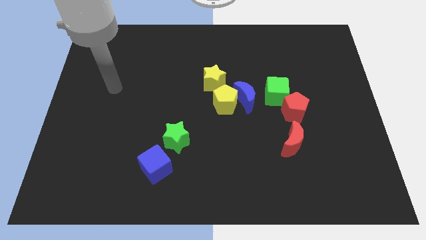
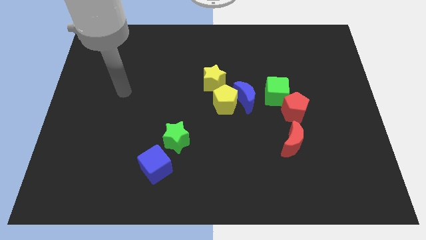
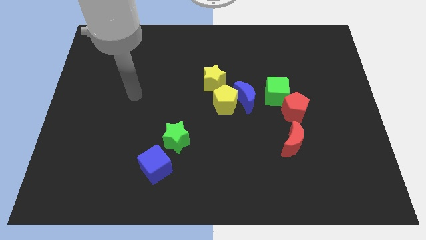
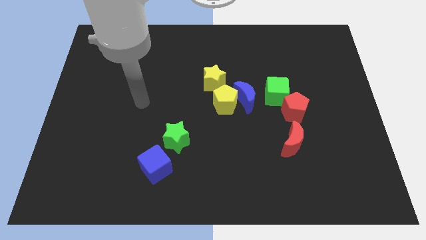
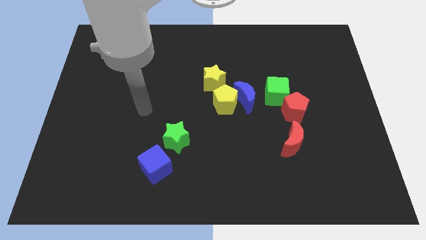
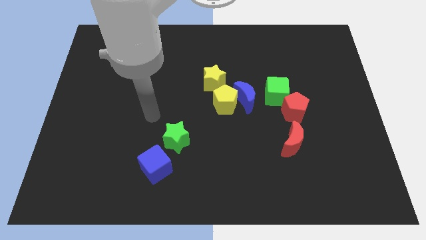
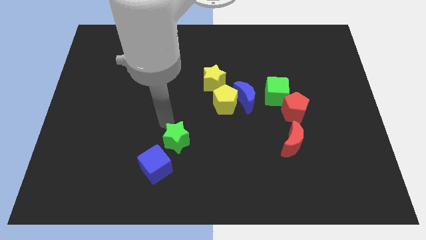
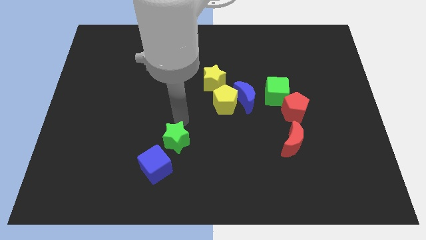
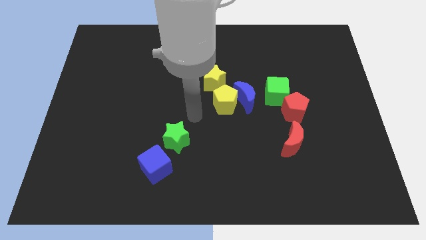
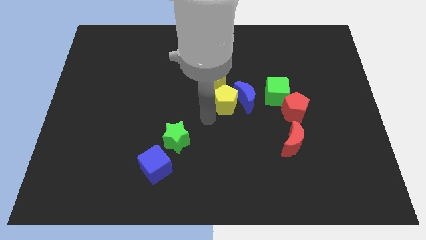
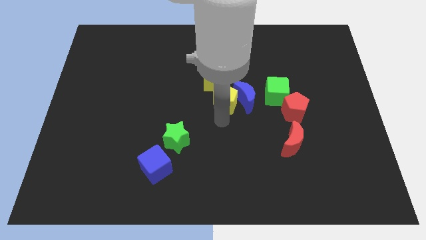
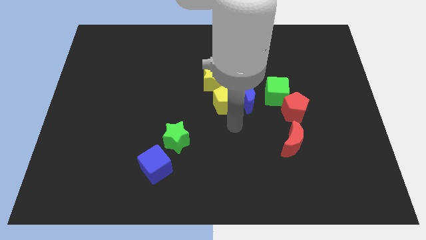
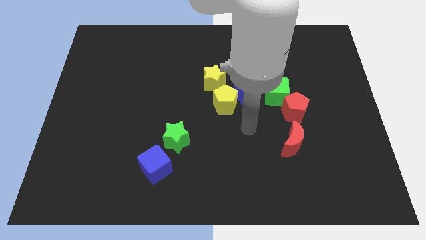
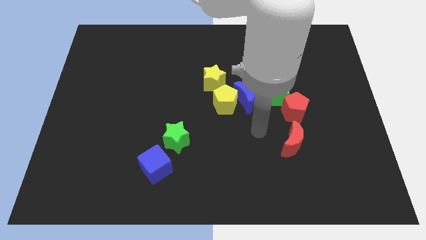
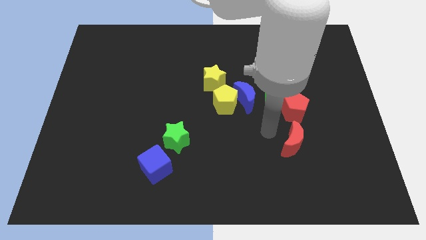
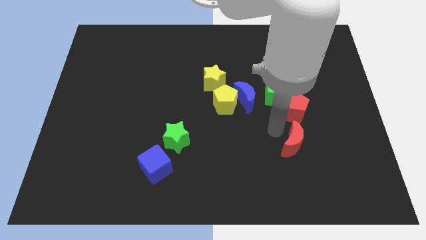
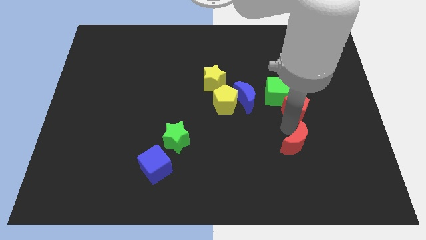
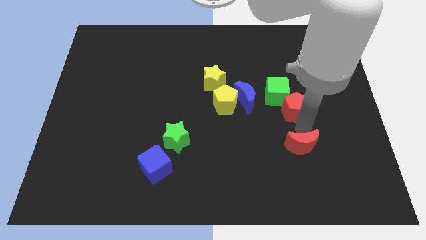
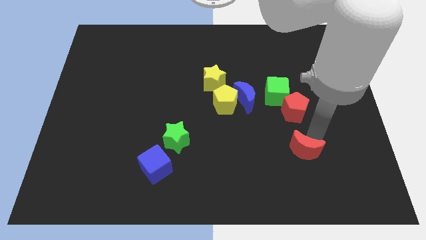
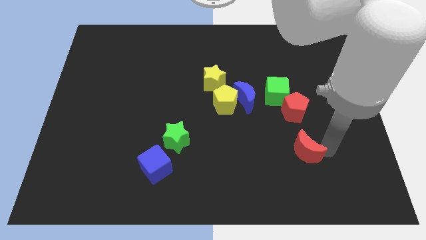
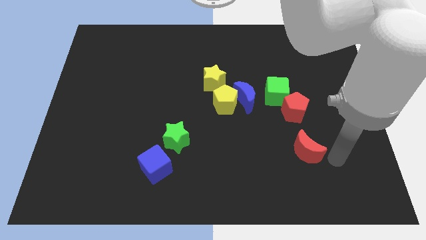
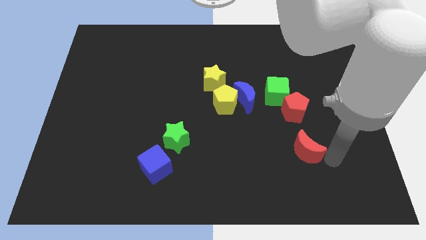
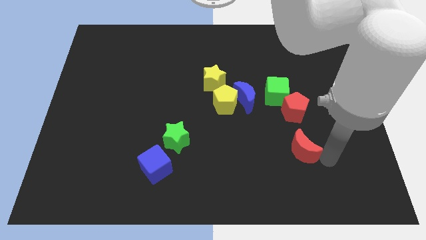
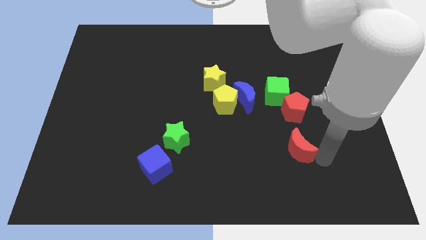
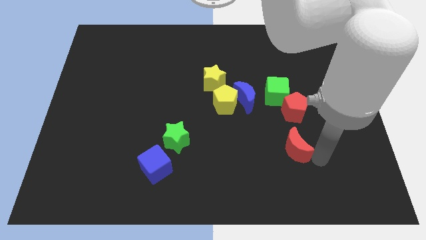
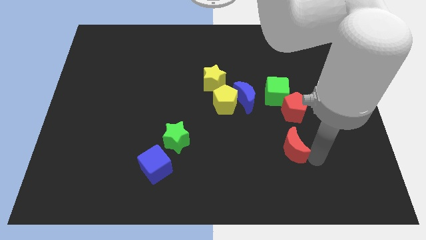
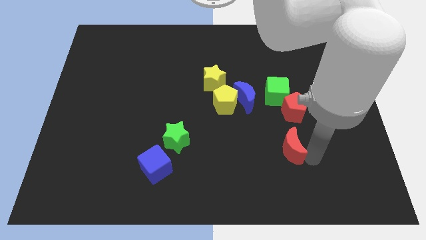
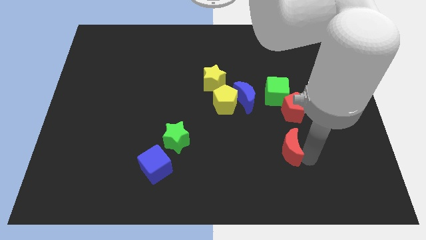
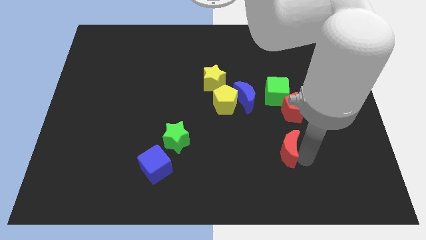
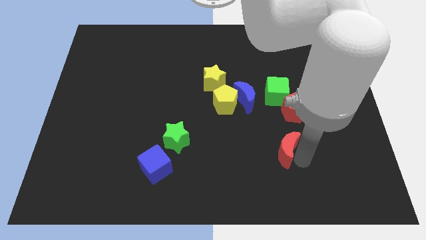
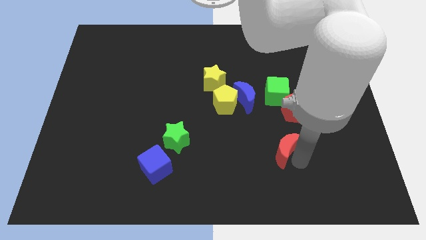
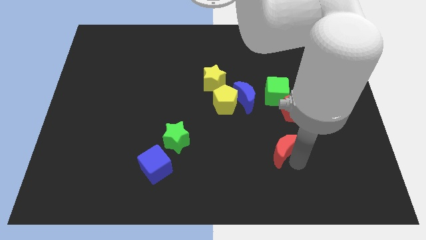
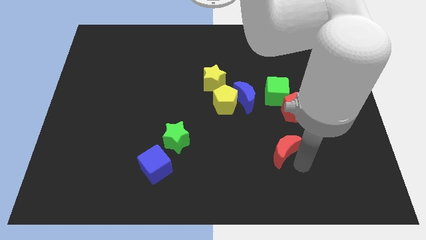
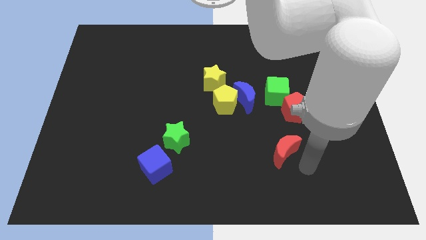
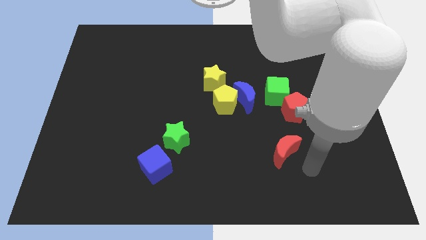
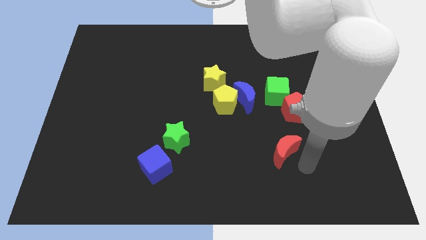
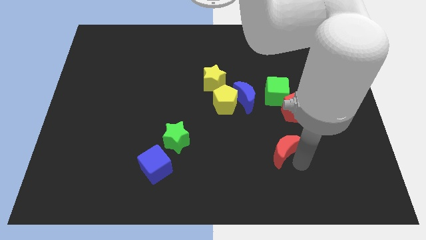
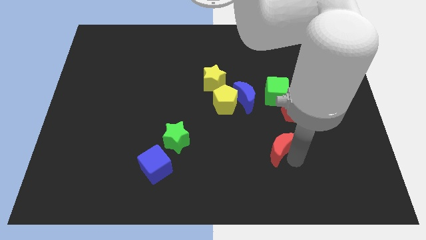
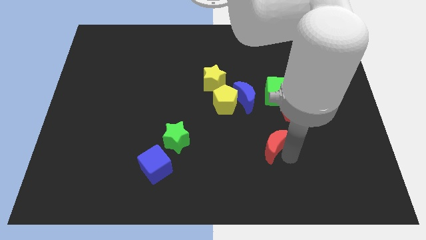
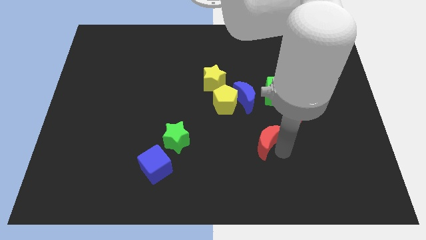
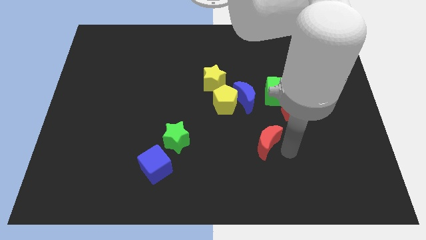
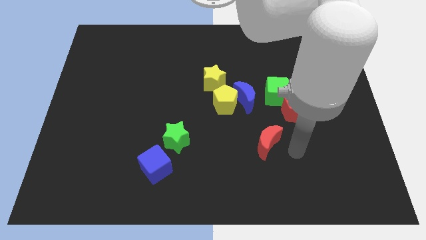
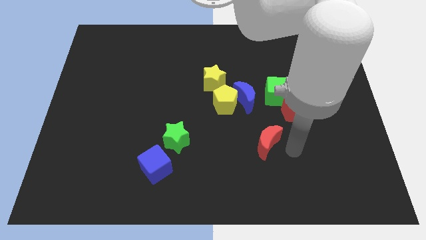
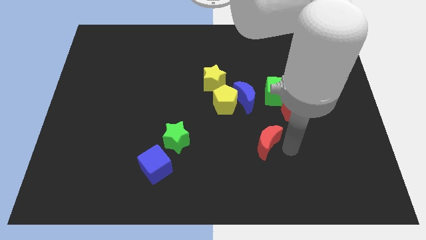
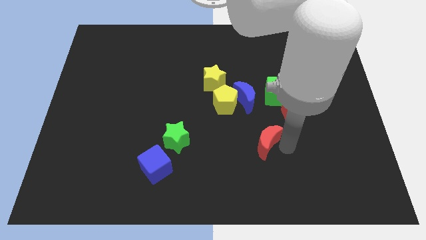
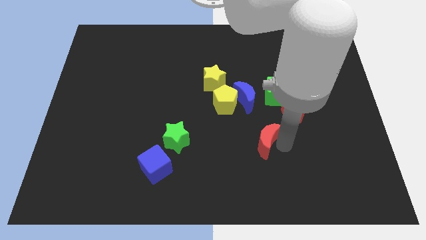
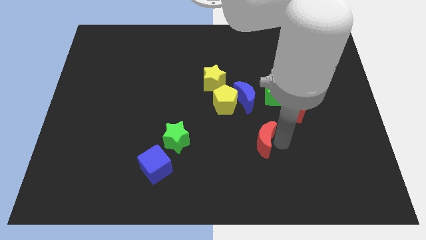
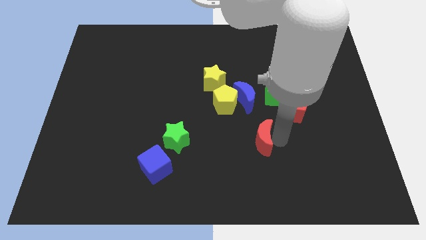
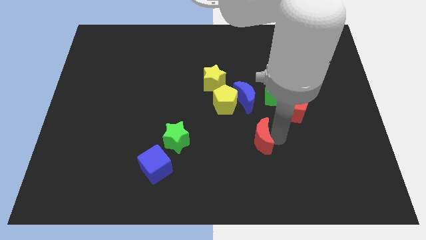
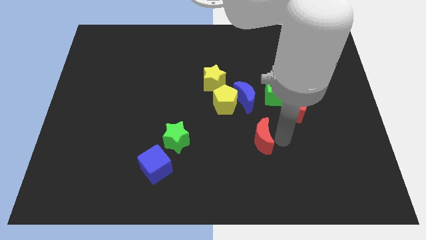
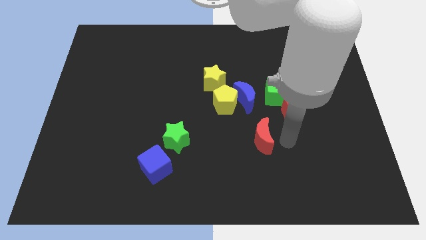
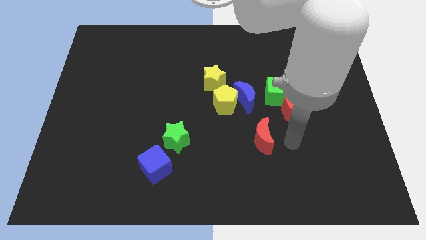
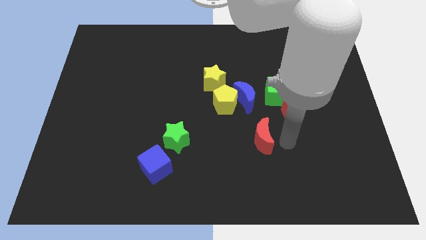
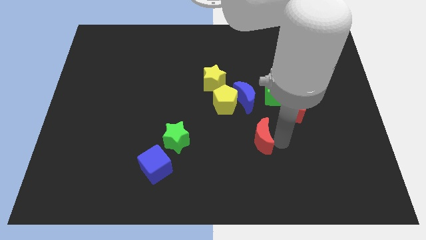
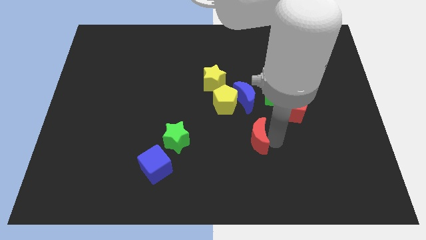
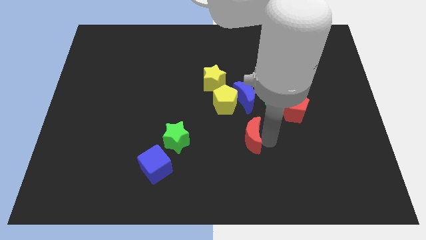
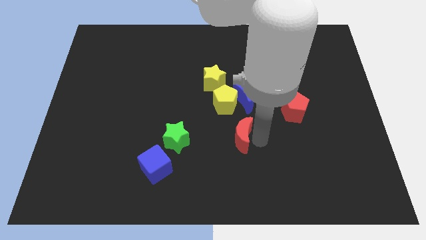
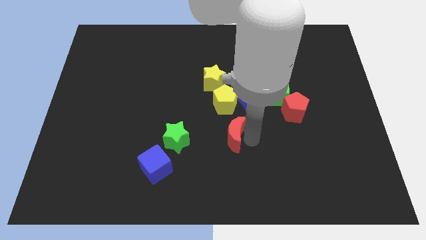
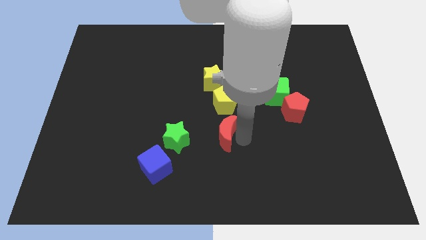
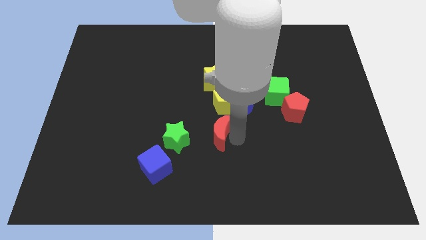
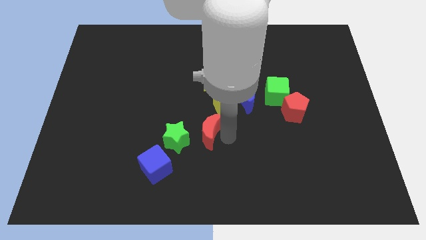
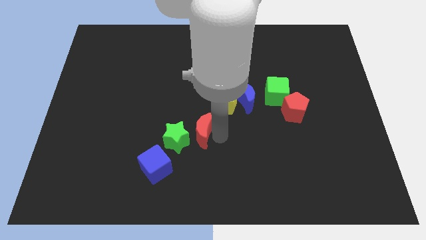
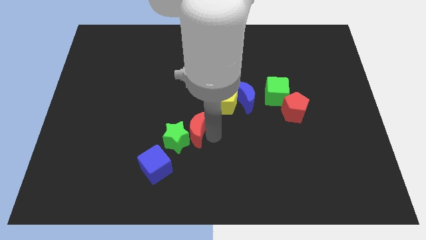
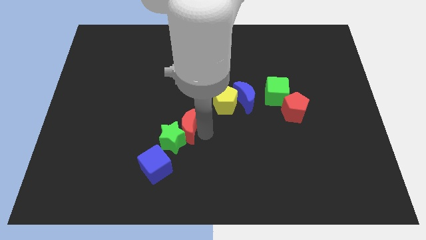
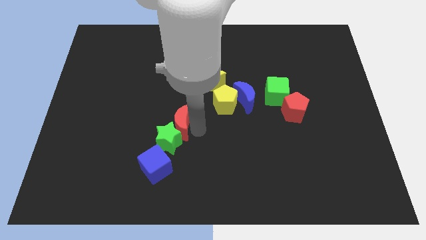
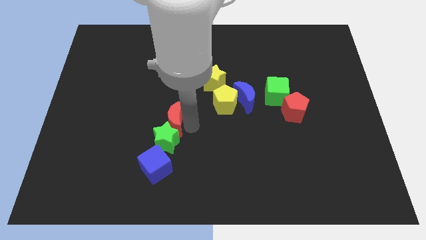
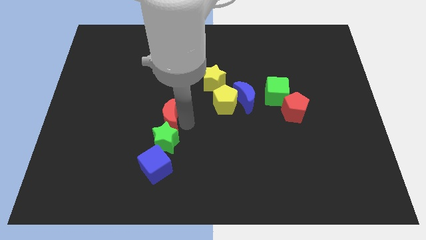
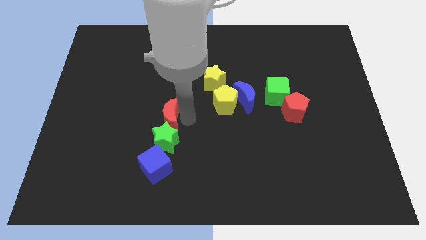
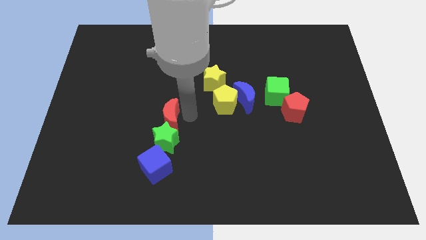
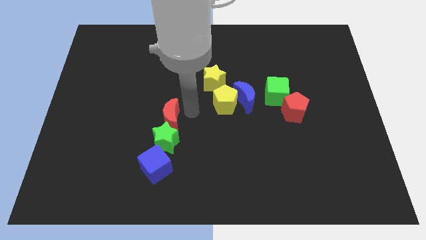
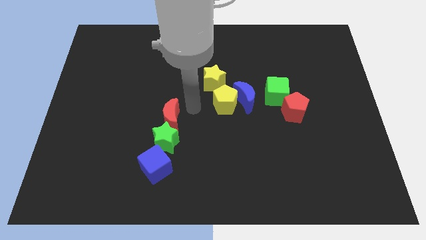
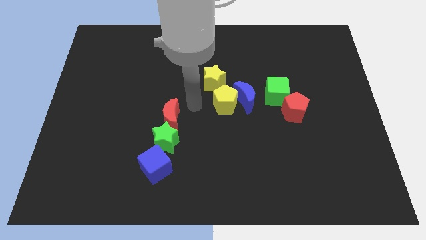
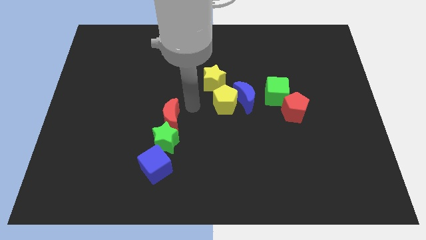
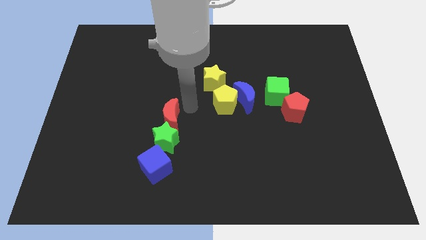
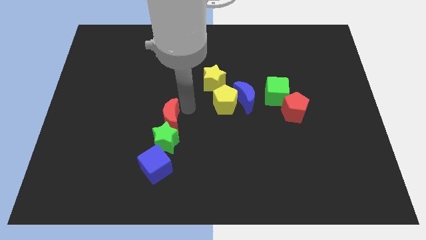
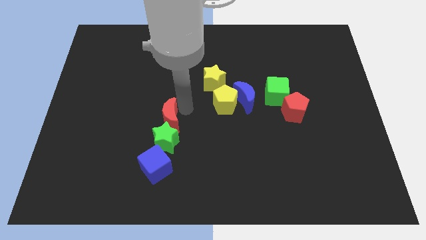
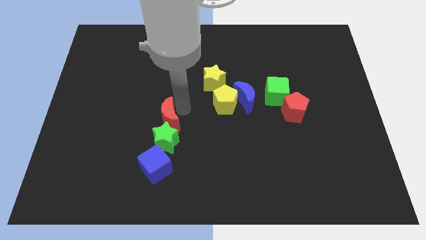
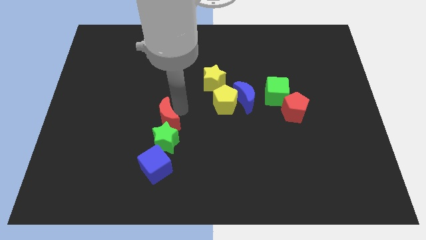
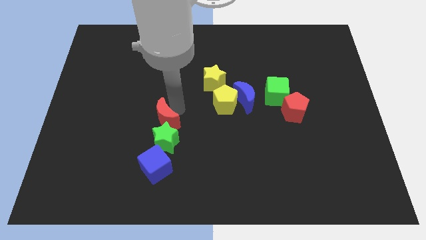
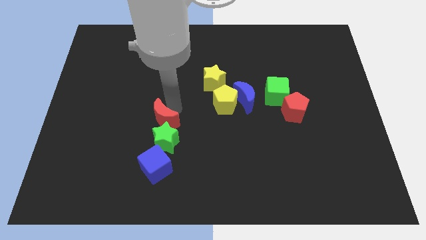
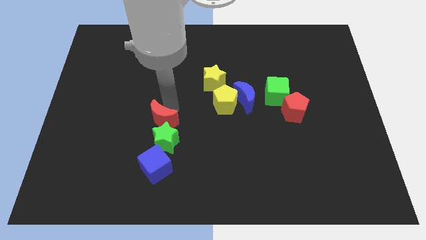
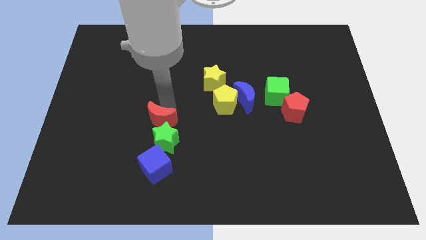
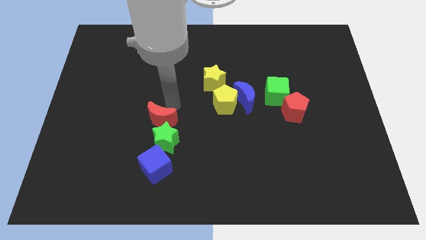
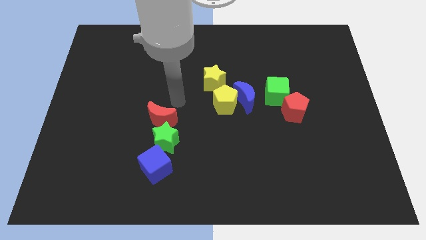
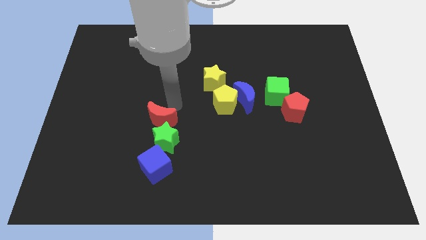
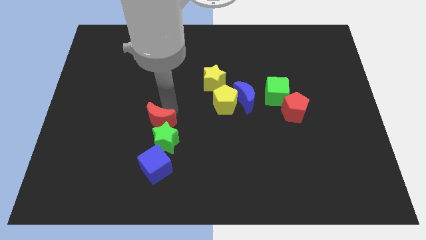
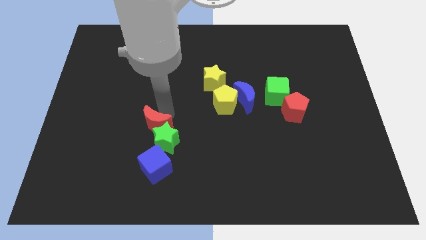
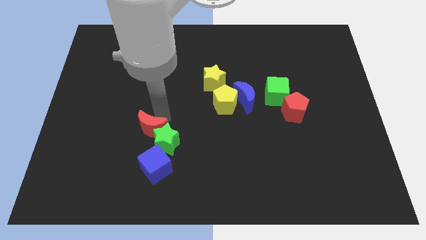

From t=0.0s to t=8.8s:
put the red moon to the left of the green star
